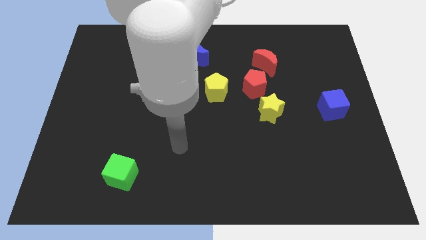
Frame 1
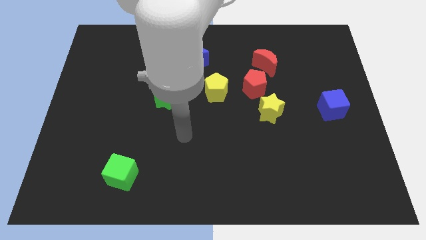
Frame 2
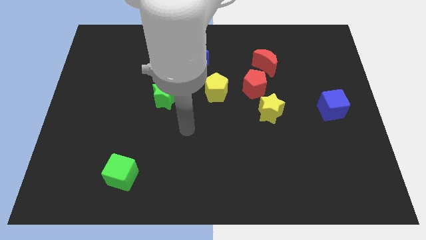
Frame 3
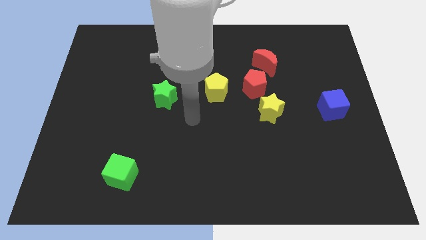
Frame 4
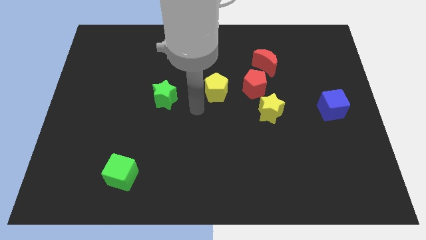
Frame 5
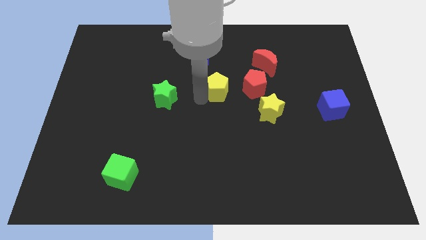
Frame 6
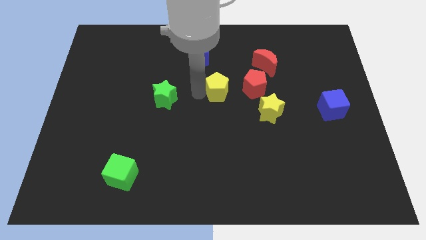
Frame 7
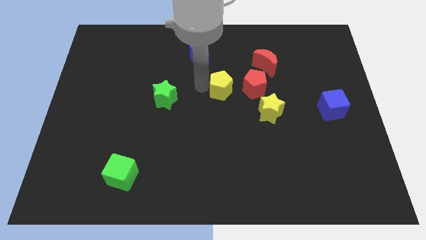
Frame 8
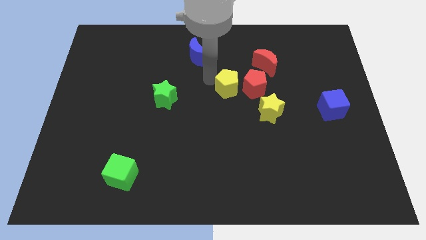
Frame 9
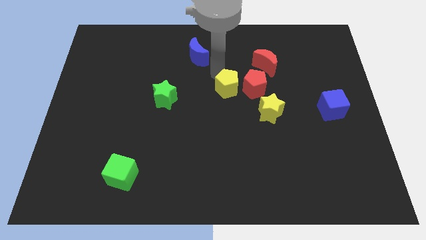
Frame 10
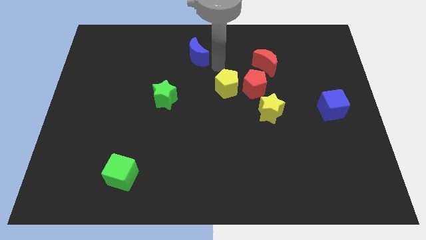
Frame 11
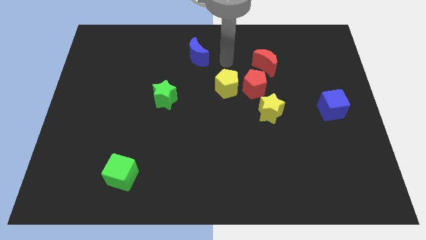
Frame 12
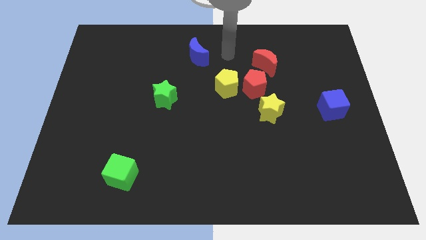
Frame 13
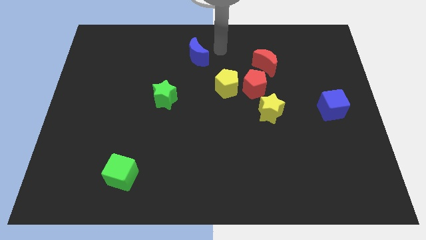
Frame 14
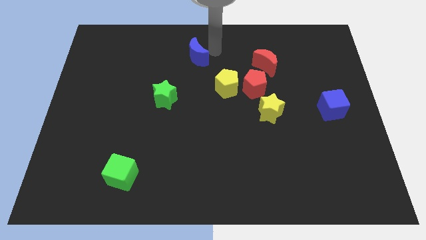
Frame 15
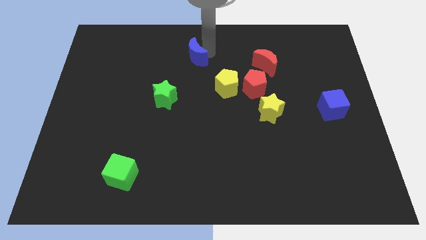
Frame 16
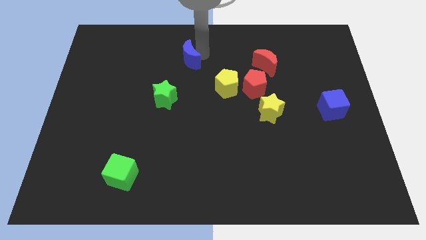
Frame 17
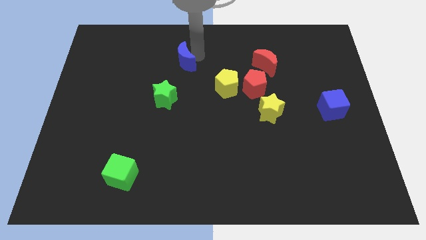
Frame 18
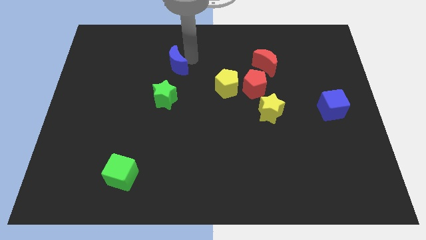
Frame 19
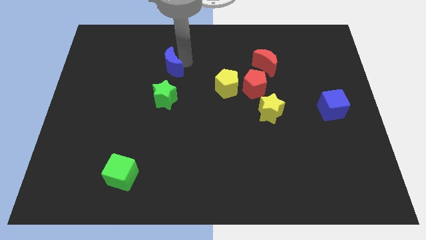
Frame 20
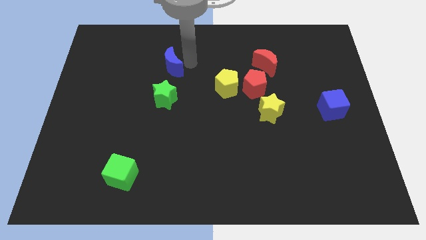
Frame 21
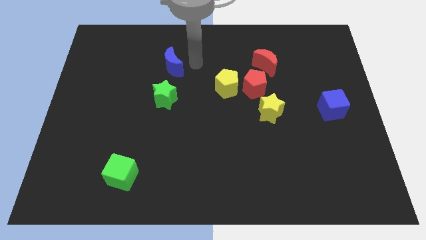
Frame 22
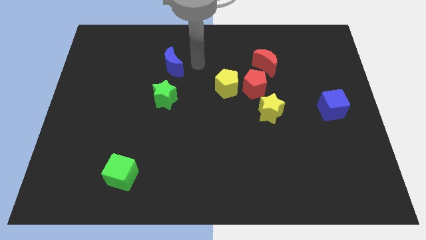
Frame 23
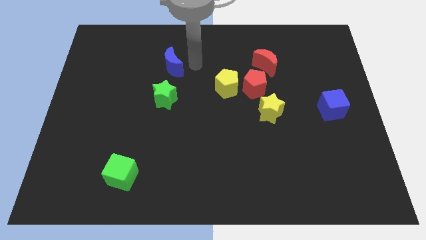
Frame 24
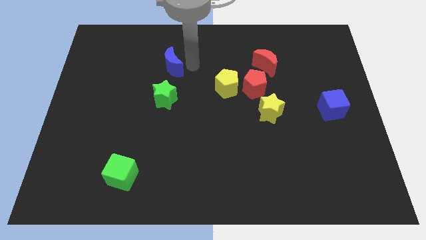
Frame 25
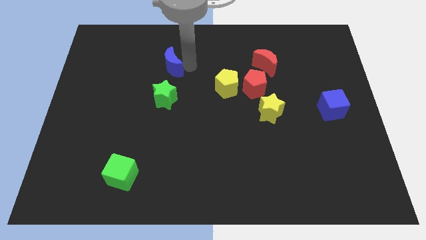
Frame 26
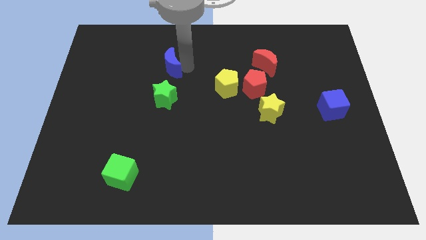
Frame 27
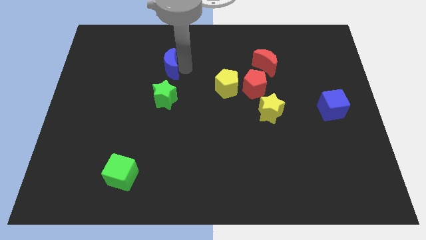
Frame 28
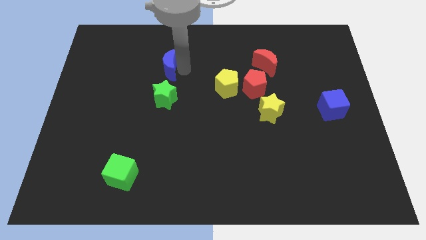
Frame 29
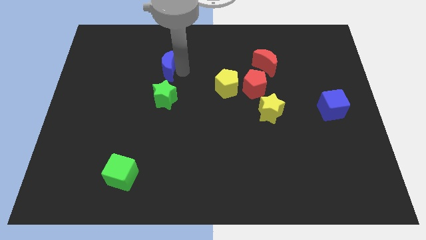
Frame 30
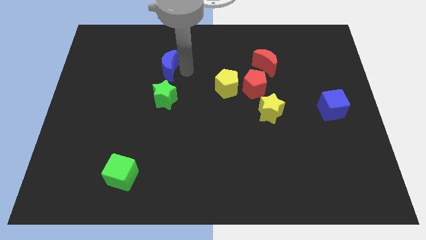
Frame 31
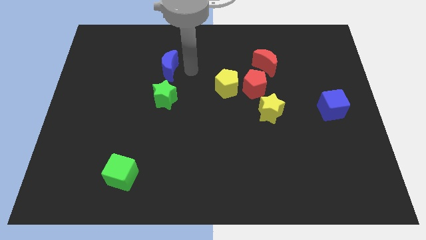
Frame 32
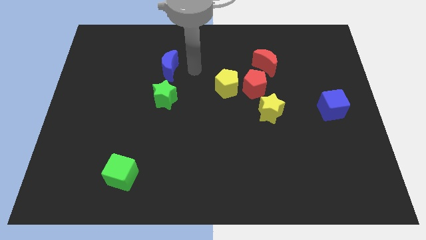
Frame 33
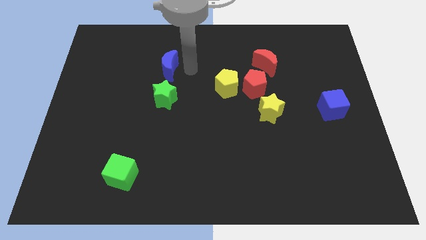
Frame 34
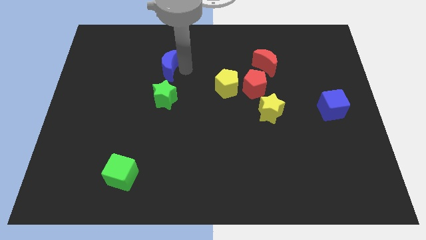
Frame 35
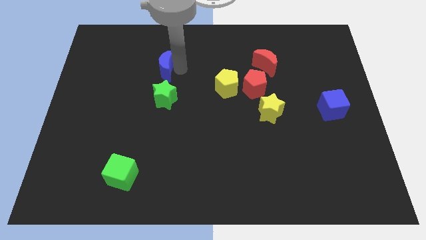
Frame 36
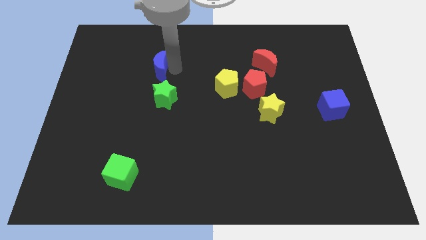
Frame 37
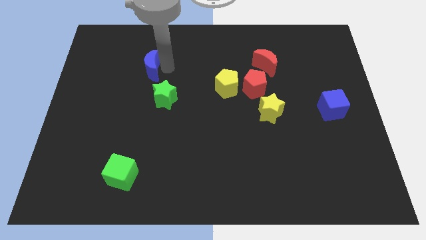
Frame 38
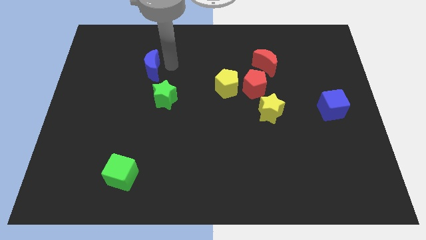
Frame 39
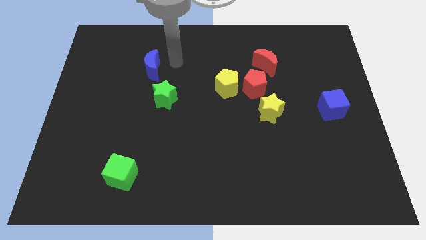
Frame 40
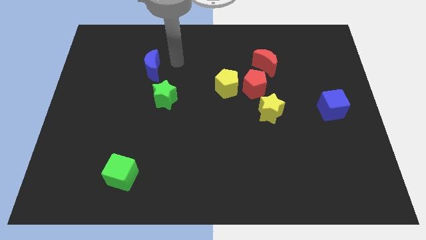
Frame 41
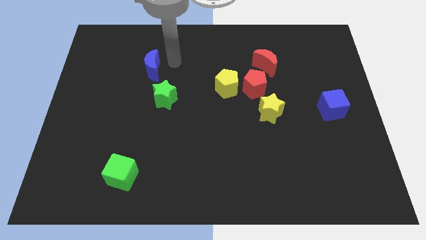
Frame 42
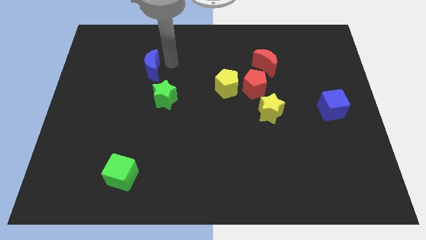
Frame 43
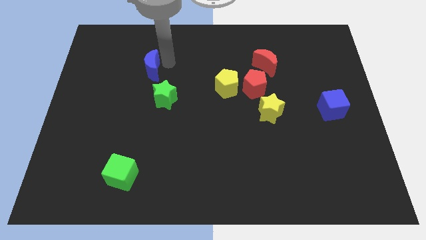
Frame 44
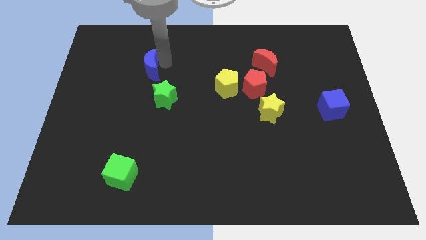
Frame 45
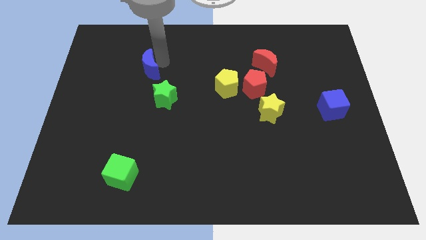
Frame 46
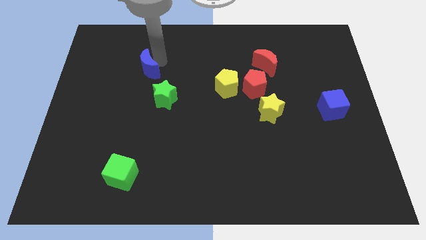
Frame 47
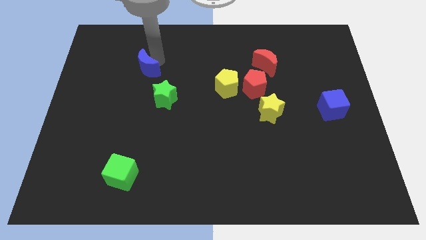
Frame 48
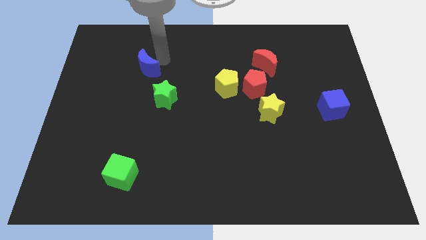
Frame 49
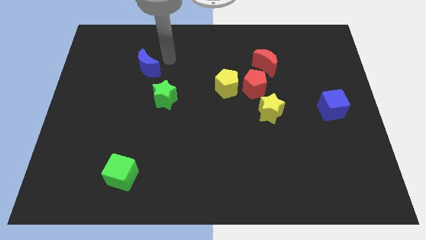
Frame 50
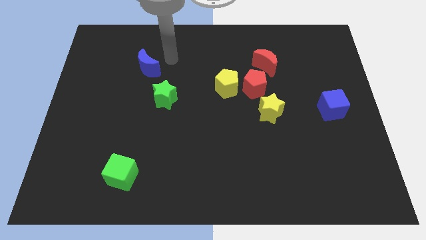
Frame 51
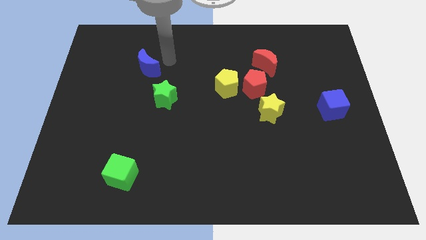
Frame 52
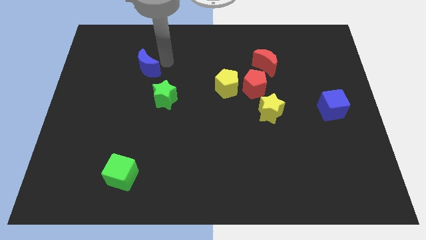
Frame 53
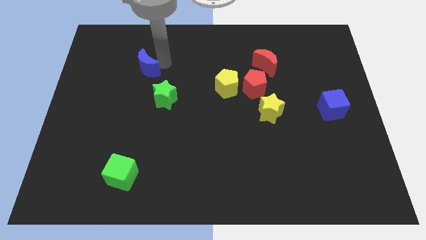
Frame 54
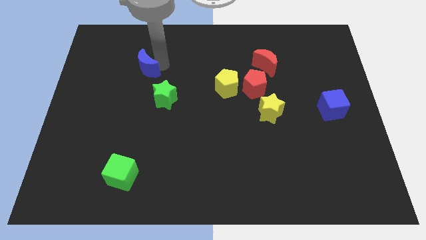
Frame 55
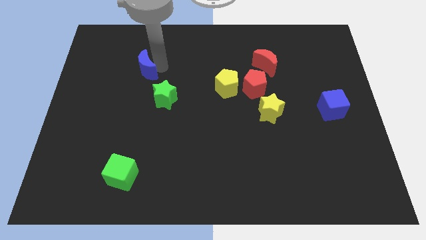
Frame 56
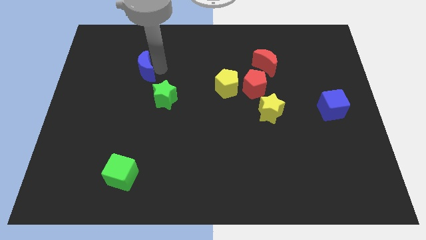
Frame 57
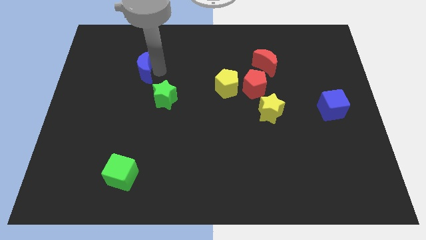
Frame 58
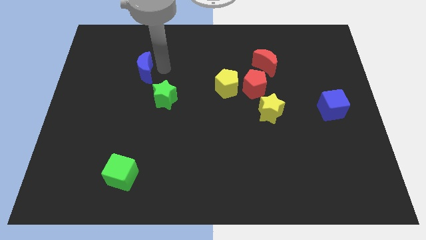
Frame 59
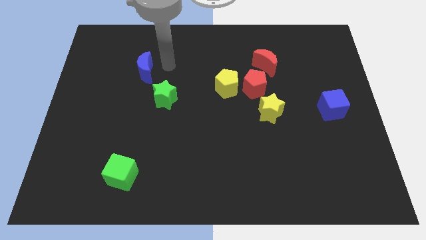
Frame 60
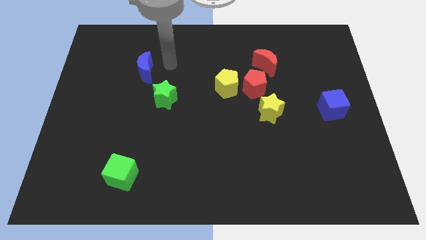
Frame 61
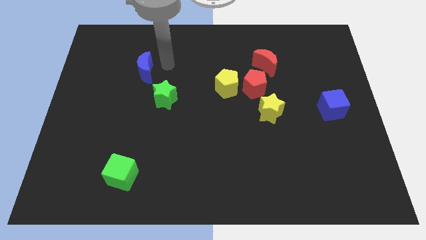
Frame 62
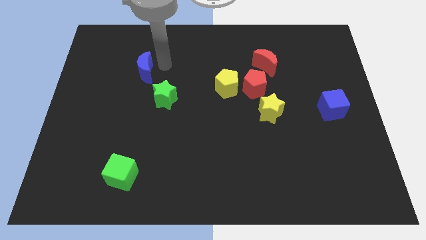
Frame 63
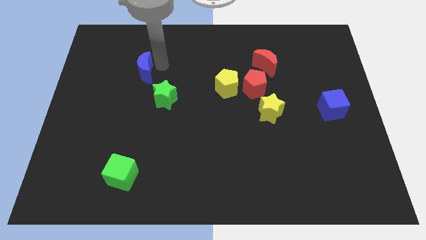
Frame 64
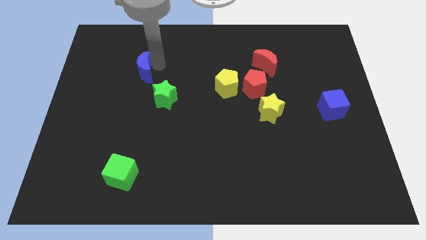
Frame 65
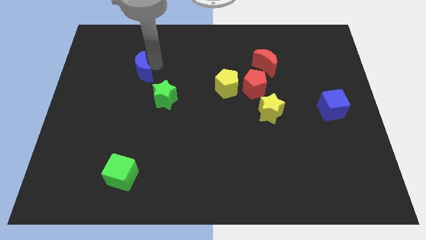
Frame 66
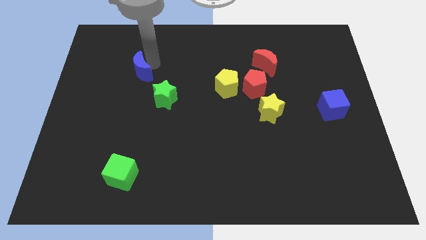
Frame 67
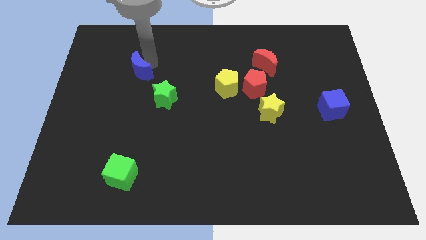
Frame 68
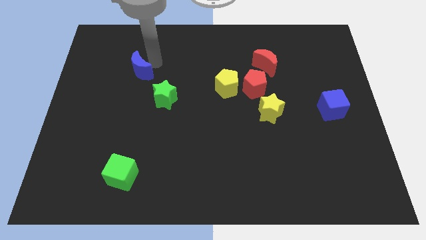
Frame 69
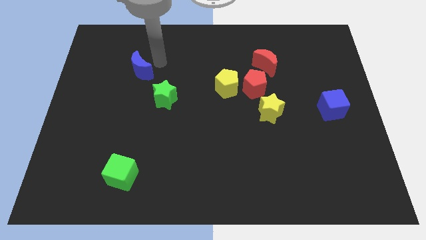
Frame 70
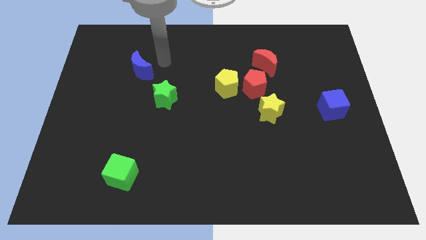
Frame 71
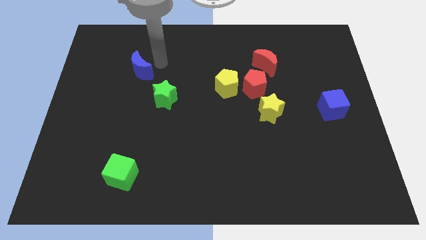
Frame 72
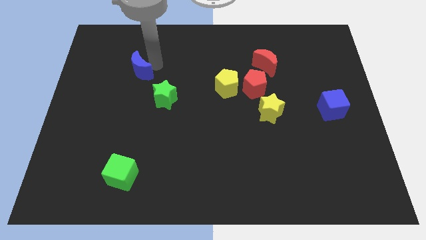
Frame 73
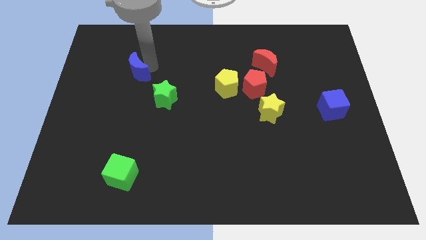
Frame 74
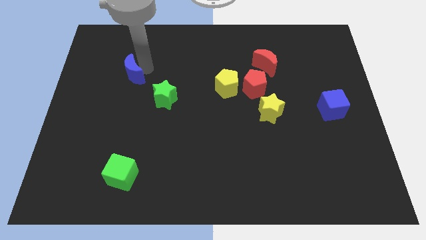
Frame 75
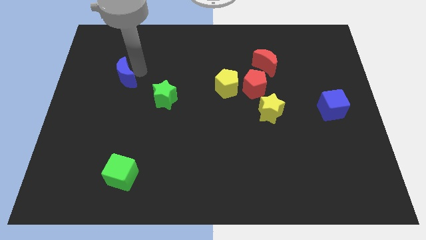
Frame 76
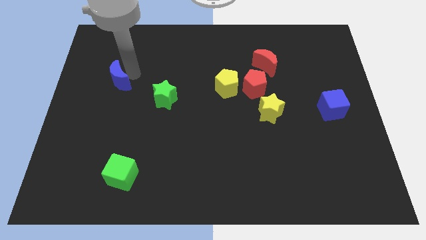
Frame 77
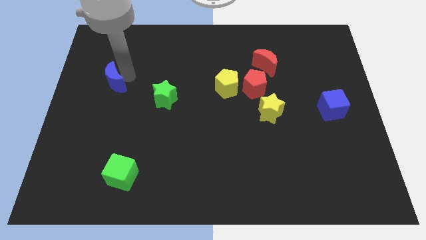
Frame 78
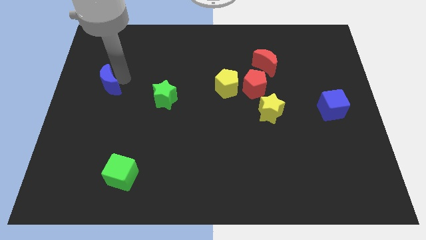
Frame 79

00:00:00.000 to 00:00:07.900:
push the blue moon to the center left
